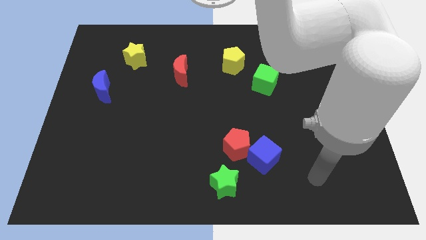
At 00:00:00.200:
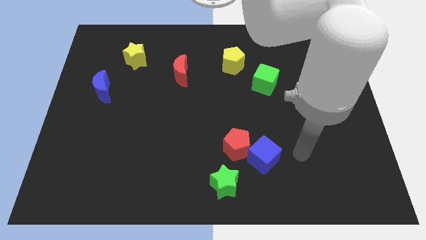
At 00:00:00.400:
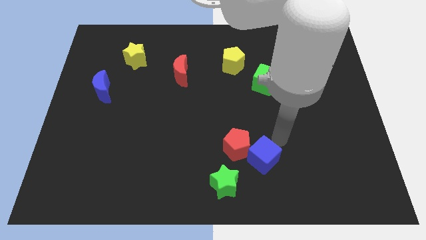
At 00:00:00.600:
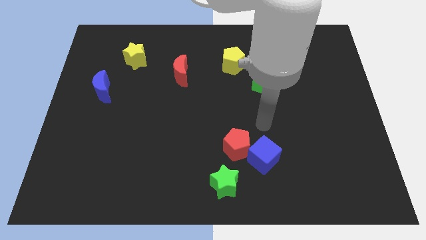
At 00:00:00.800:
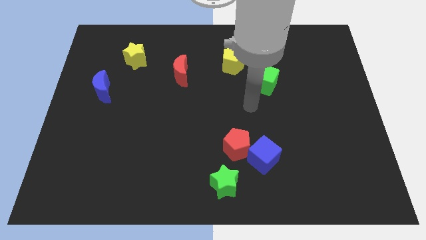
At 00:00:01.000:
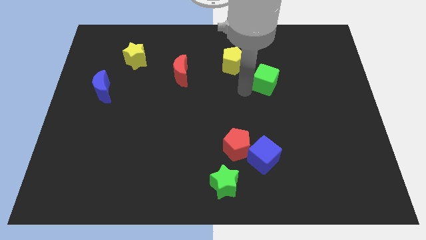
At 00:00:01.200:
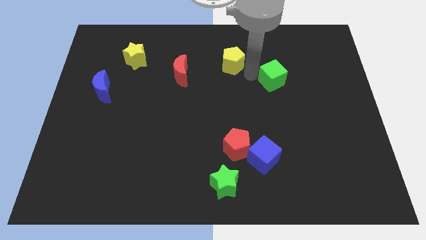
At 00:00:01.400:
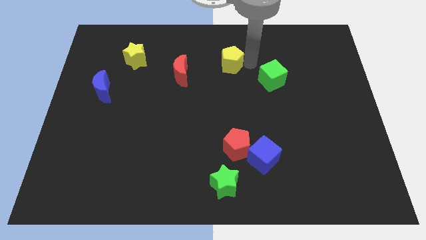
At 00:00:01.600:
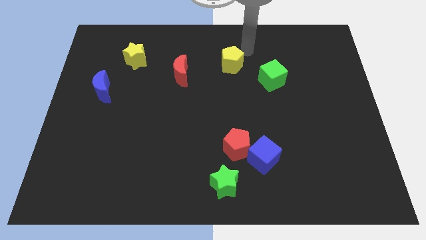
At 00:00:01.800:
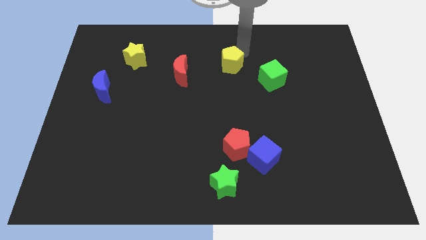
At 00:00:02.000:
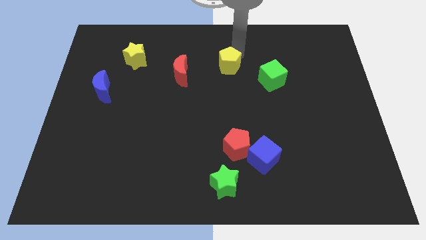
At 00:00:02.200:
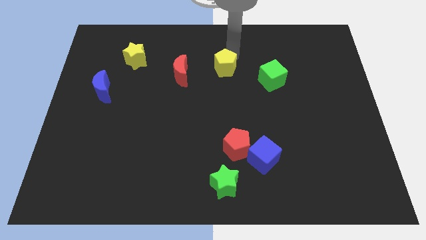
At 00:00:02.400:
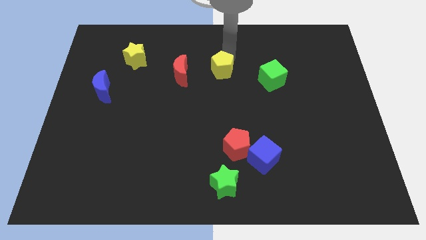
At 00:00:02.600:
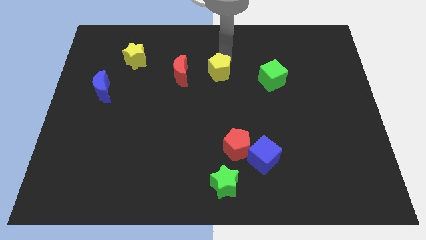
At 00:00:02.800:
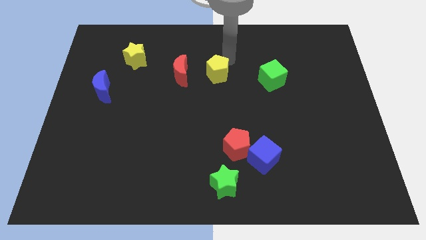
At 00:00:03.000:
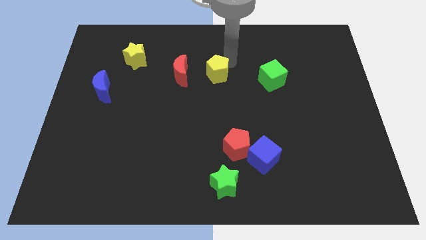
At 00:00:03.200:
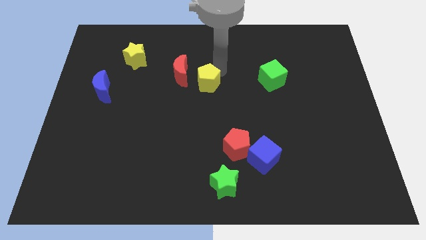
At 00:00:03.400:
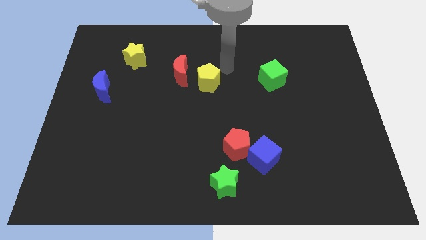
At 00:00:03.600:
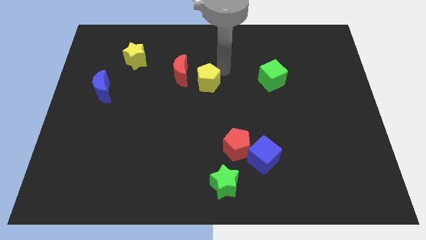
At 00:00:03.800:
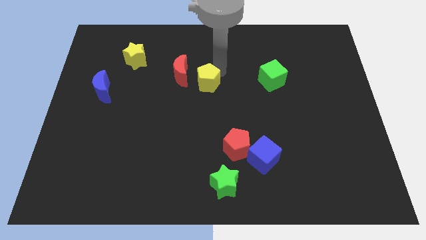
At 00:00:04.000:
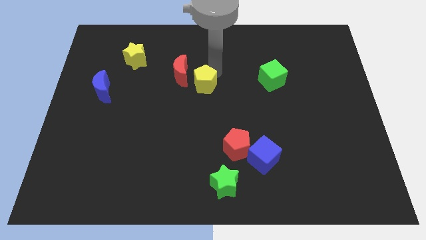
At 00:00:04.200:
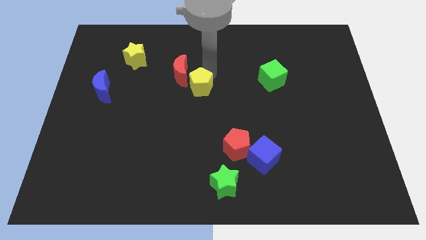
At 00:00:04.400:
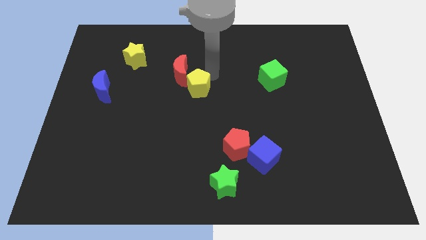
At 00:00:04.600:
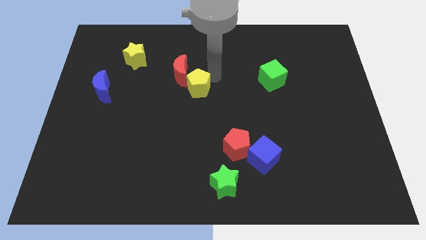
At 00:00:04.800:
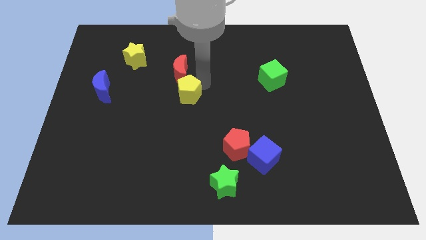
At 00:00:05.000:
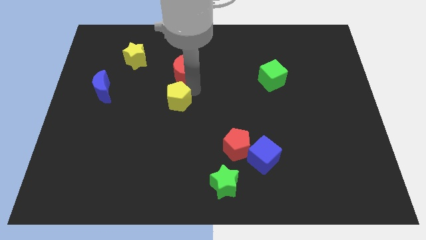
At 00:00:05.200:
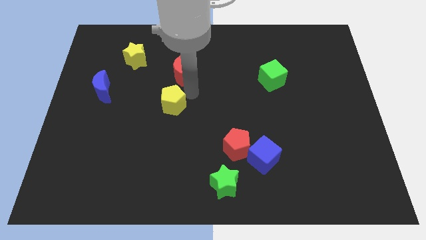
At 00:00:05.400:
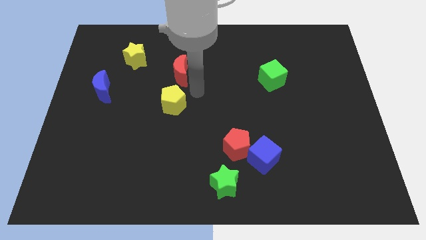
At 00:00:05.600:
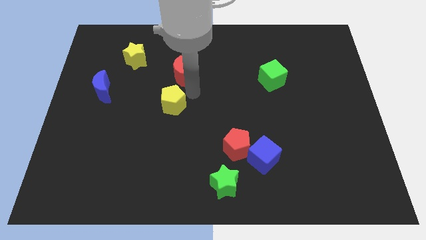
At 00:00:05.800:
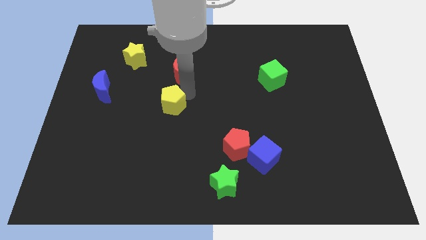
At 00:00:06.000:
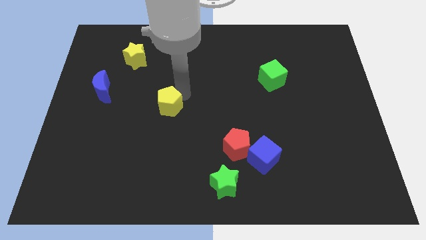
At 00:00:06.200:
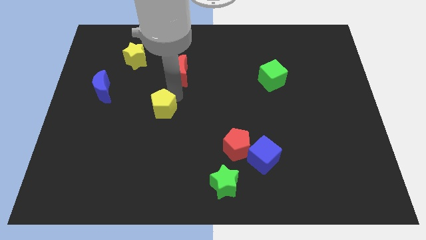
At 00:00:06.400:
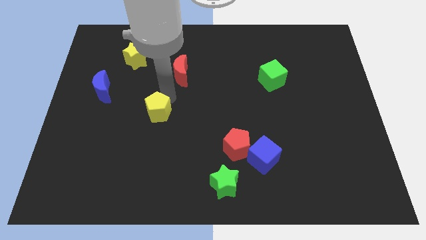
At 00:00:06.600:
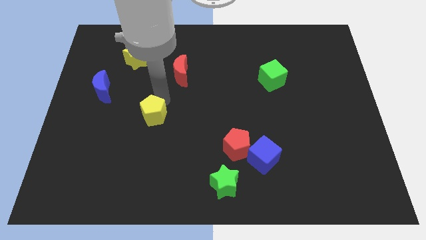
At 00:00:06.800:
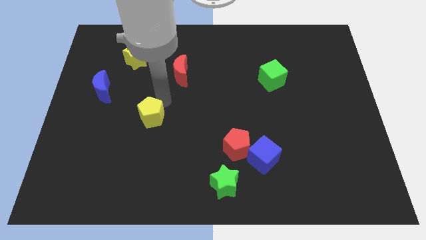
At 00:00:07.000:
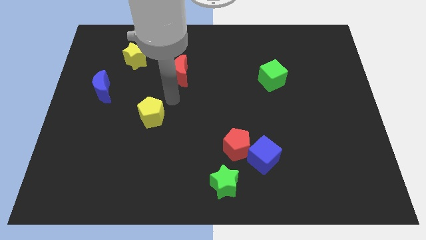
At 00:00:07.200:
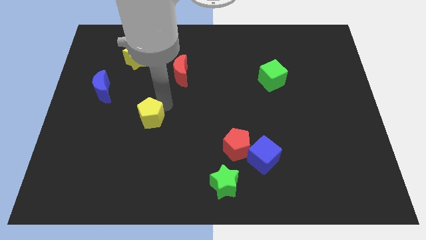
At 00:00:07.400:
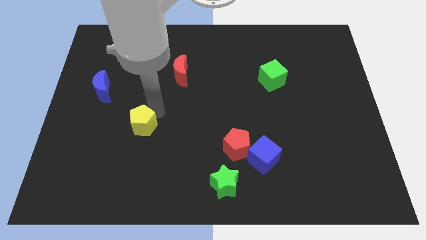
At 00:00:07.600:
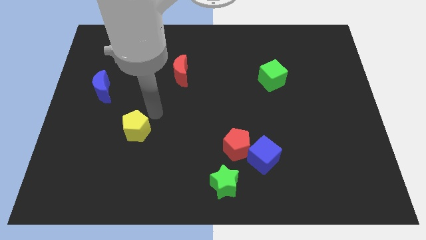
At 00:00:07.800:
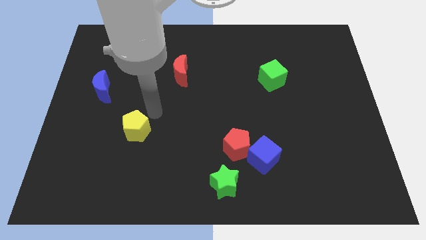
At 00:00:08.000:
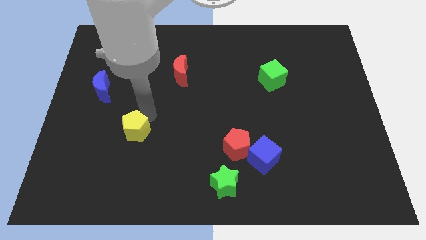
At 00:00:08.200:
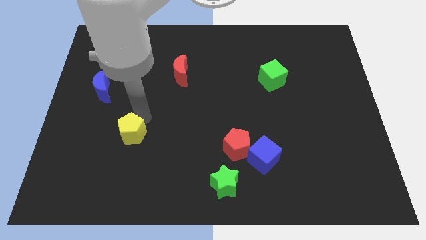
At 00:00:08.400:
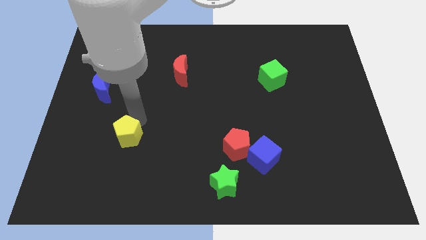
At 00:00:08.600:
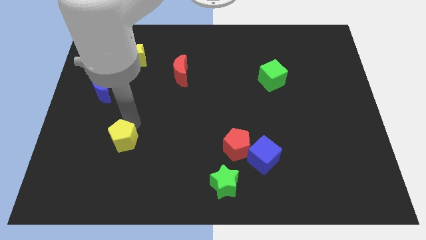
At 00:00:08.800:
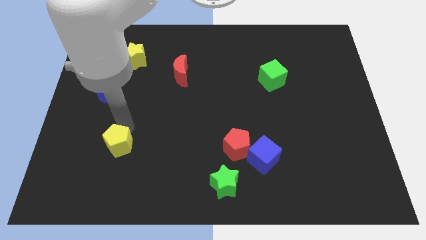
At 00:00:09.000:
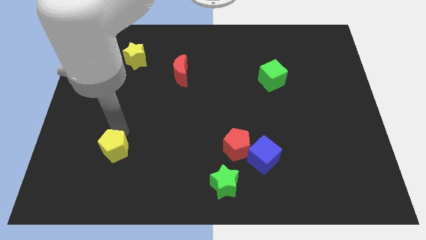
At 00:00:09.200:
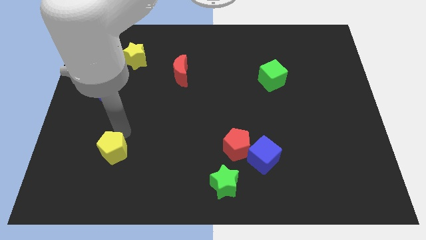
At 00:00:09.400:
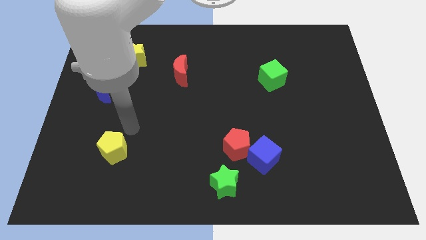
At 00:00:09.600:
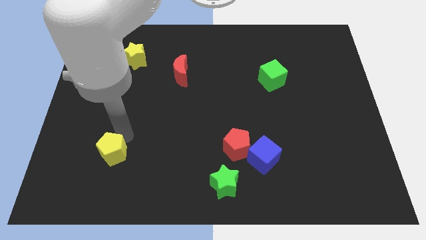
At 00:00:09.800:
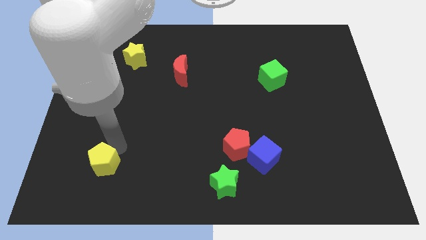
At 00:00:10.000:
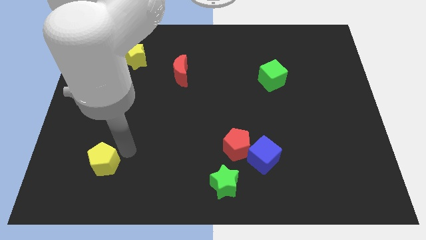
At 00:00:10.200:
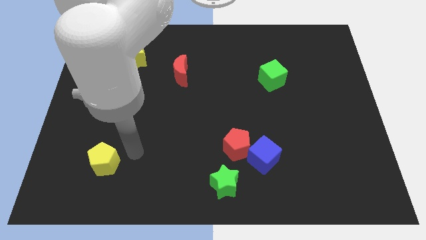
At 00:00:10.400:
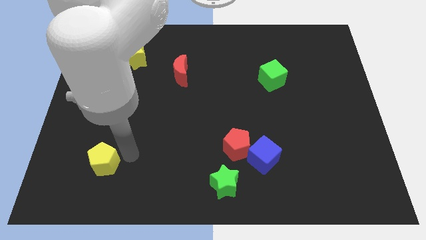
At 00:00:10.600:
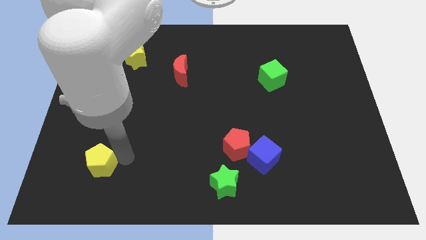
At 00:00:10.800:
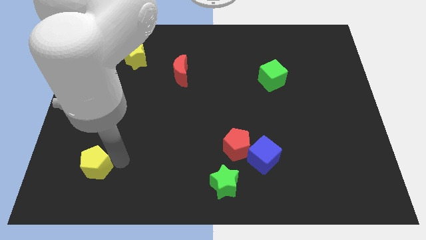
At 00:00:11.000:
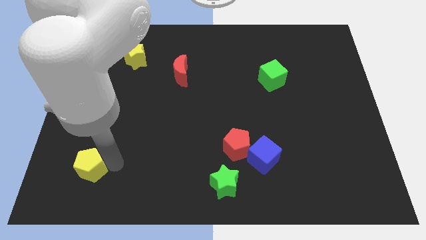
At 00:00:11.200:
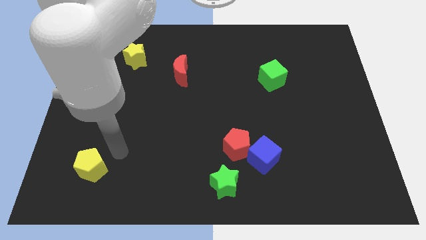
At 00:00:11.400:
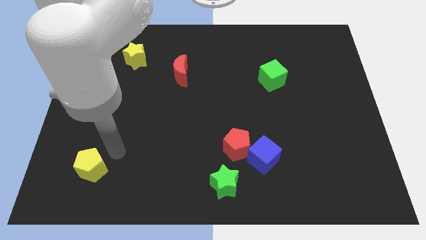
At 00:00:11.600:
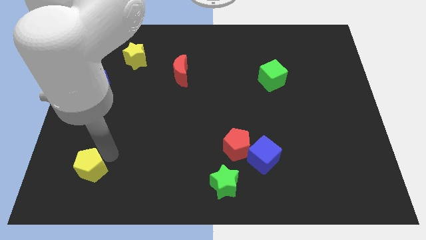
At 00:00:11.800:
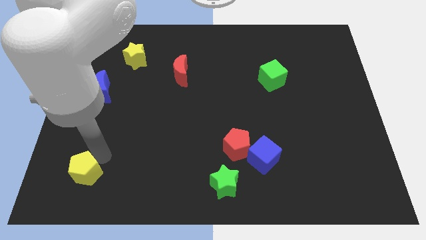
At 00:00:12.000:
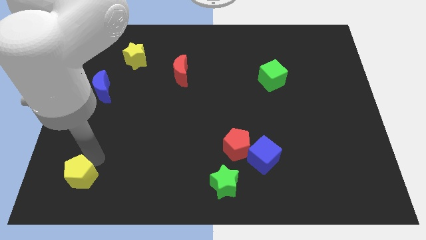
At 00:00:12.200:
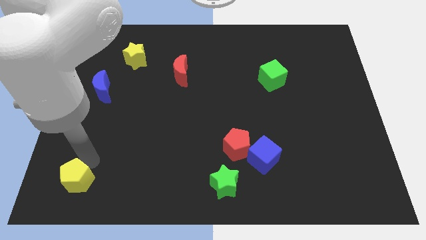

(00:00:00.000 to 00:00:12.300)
push the yellow pentagon to the bottom left corner
